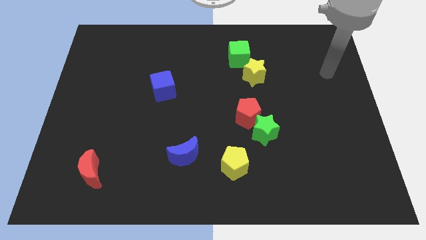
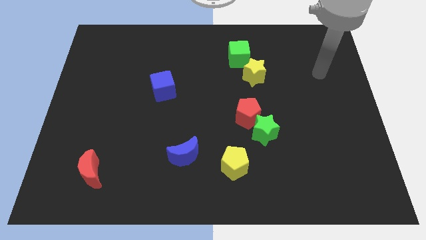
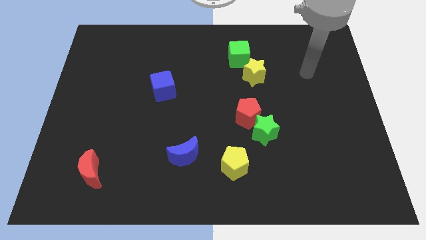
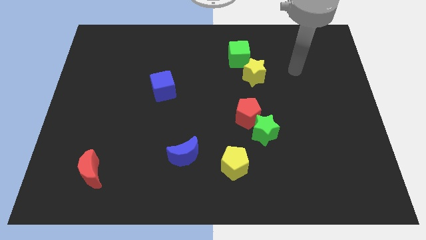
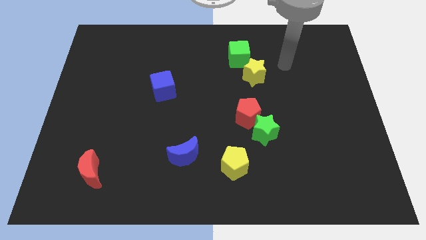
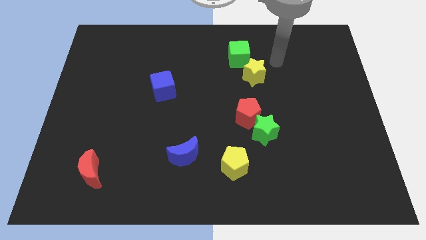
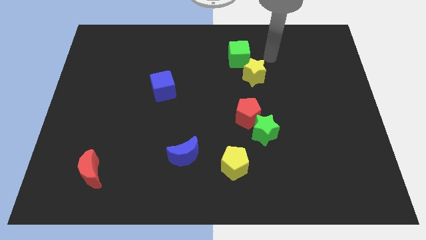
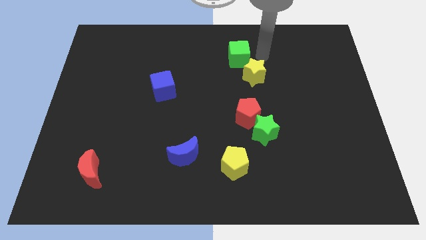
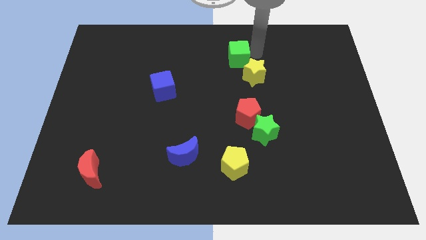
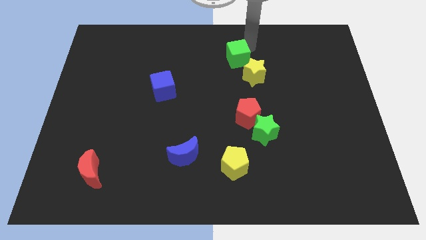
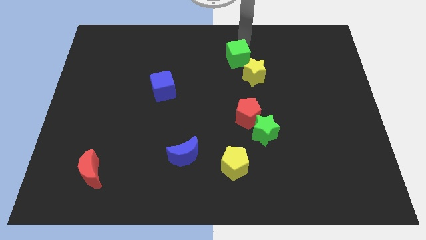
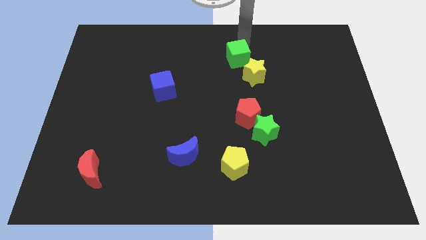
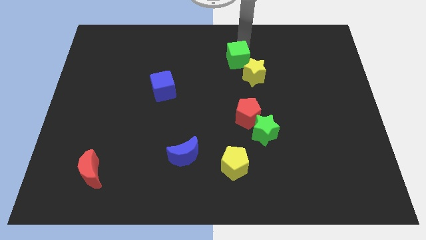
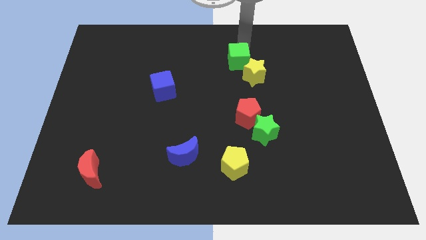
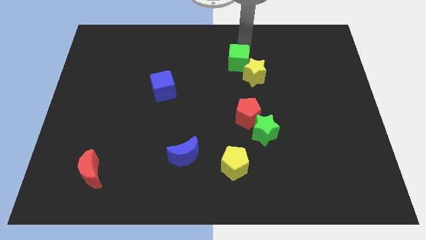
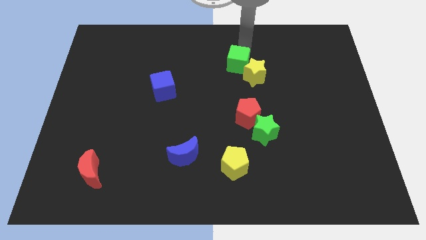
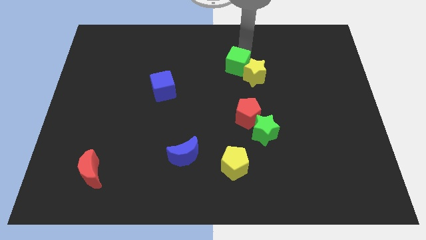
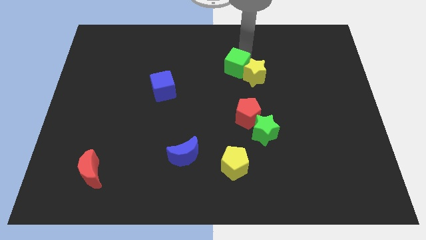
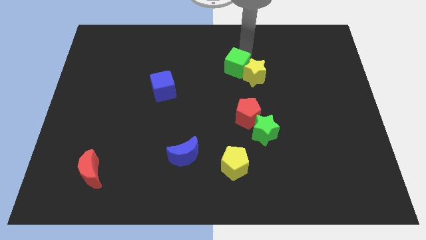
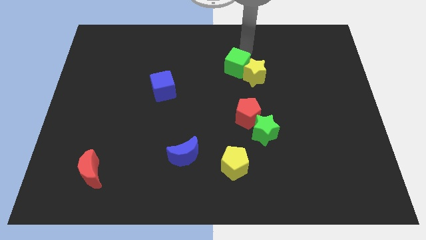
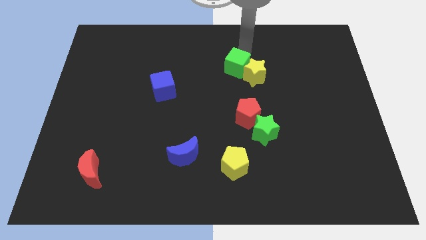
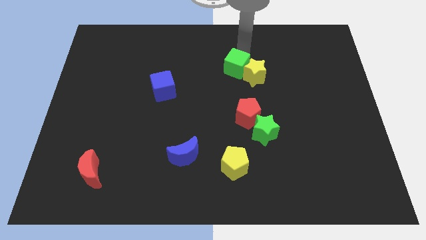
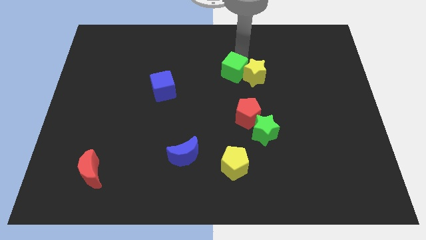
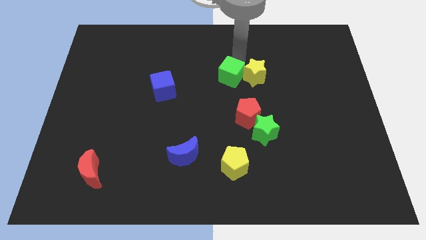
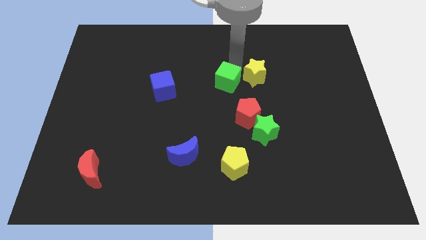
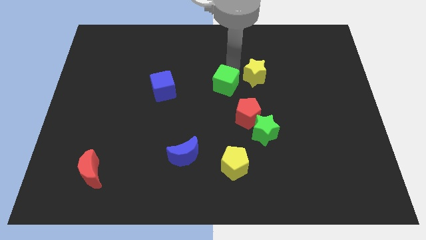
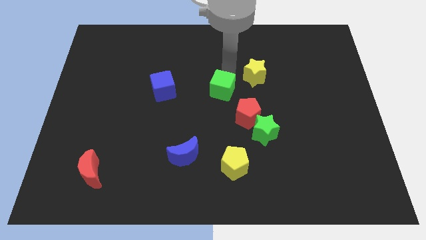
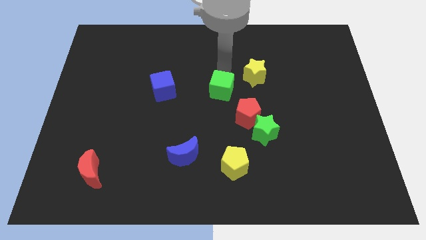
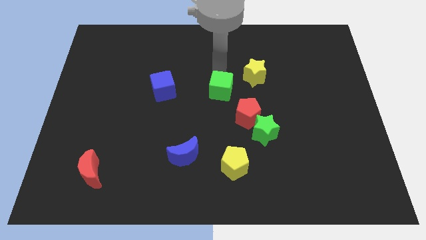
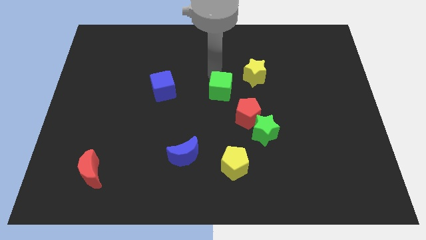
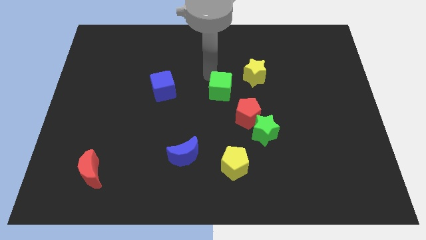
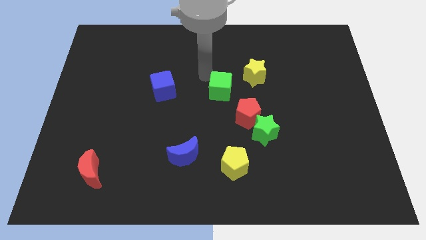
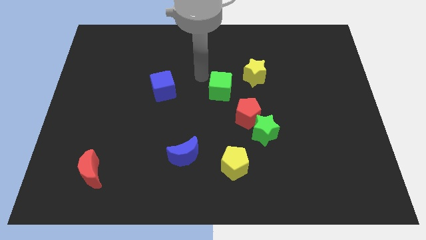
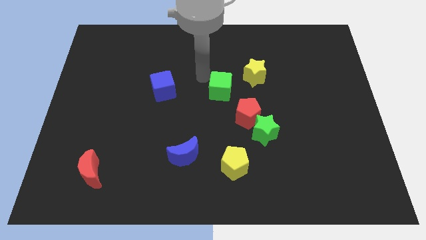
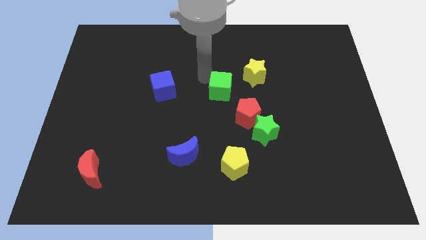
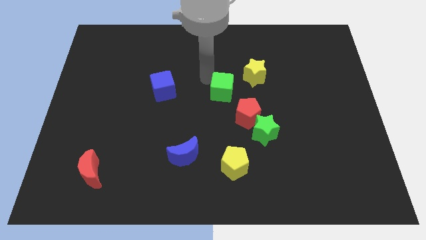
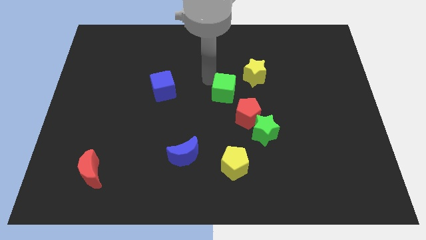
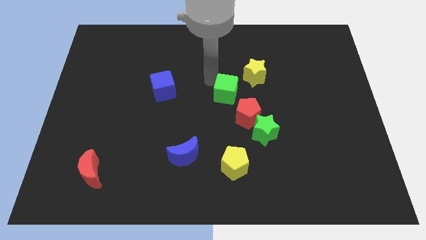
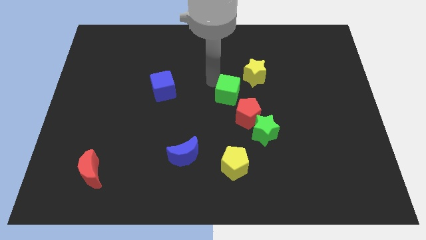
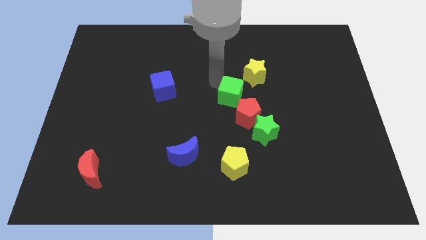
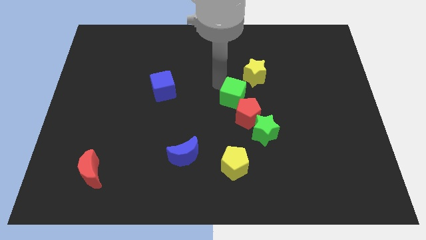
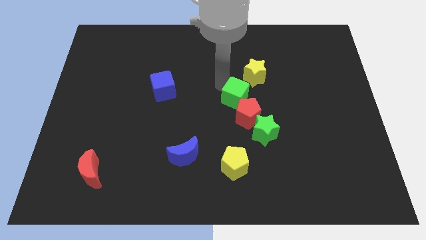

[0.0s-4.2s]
put the green cube close to the red pentagon

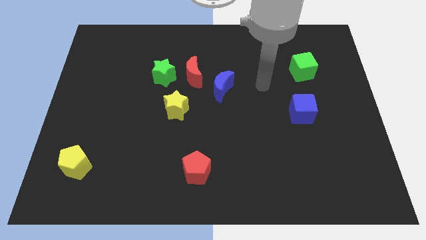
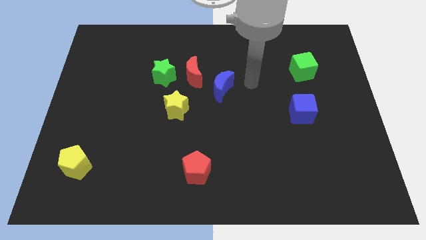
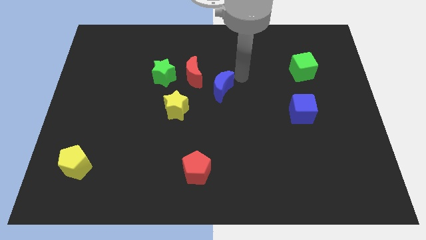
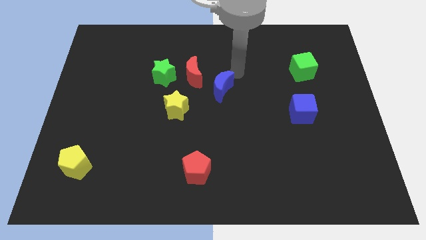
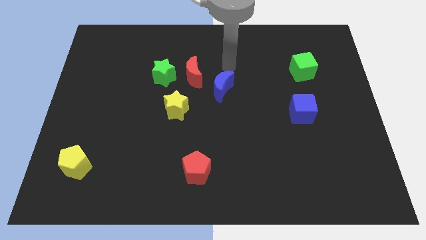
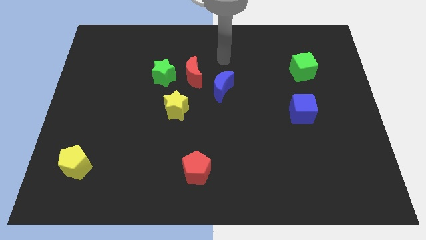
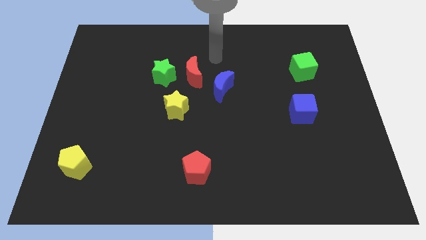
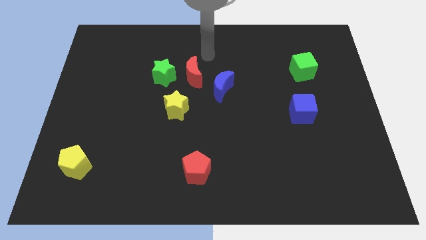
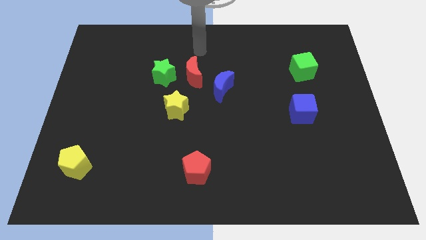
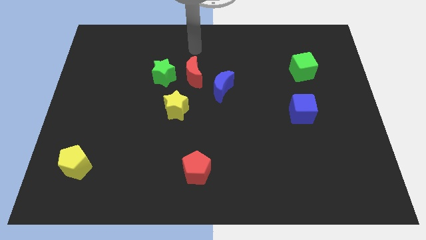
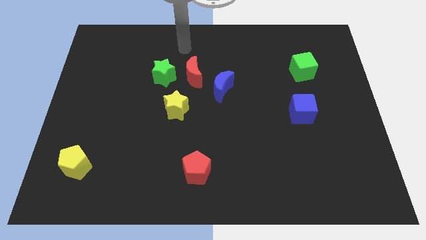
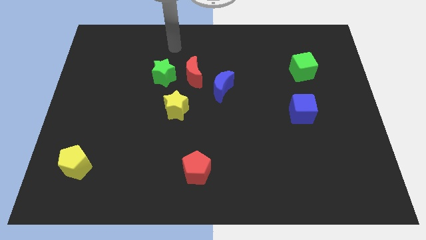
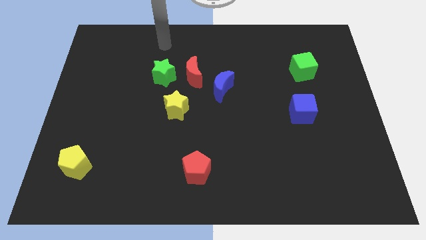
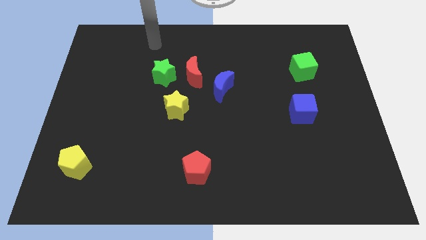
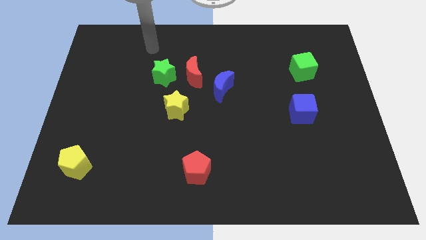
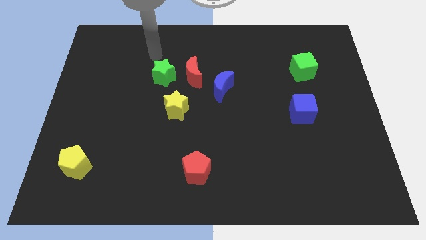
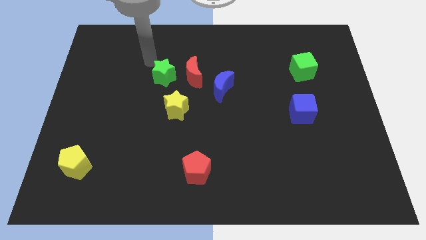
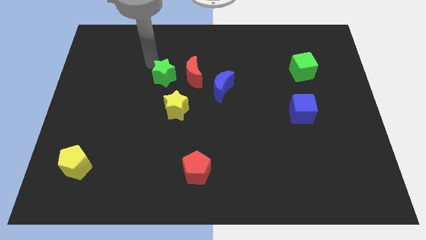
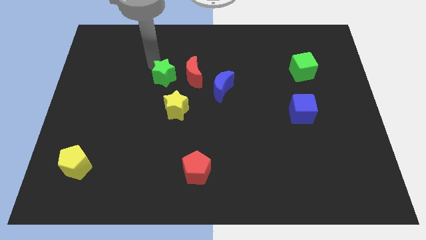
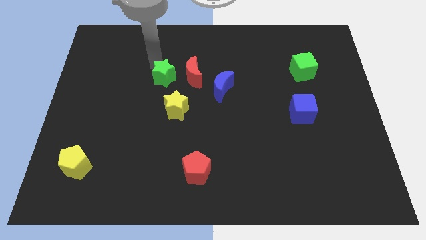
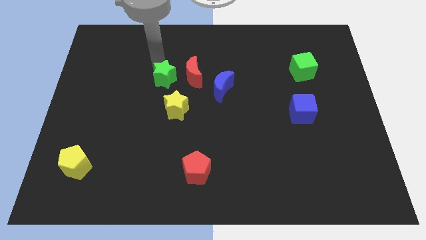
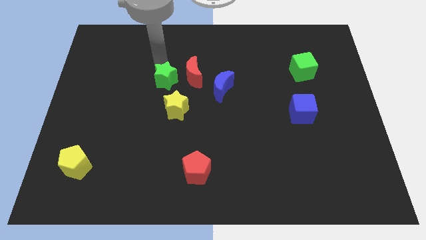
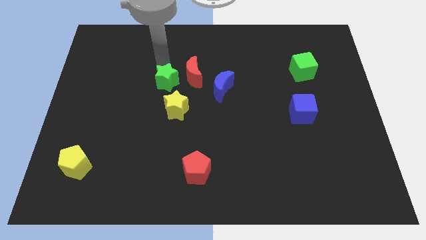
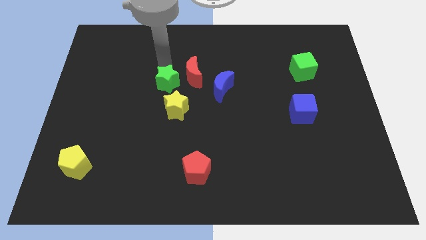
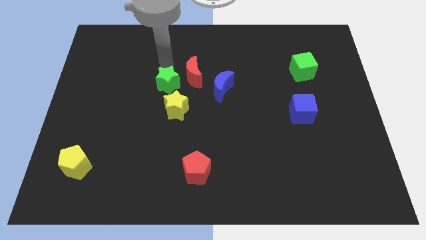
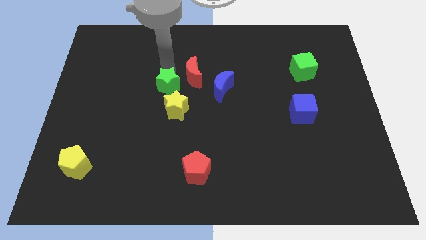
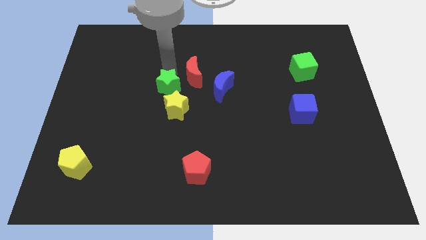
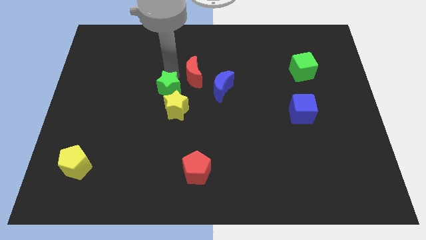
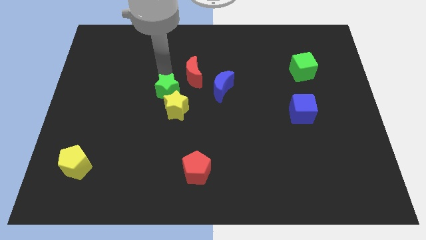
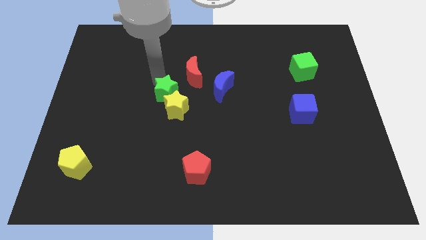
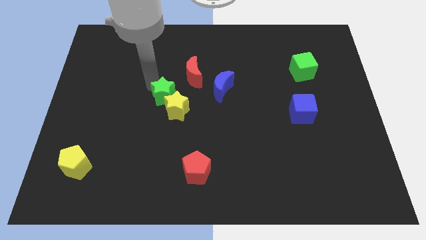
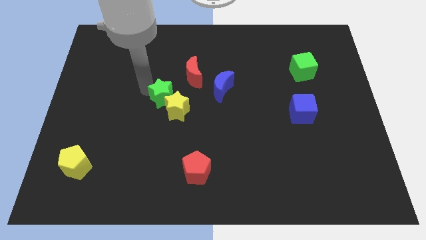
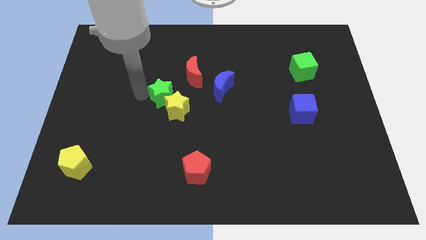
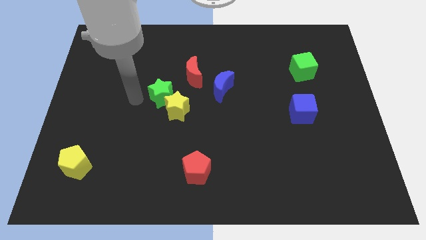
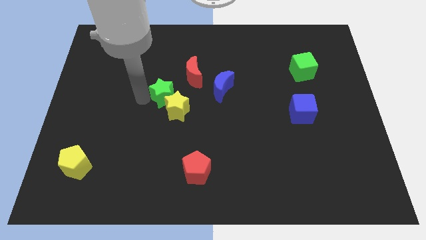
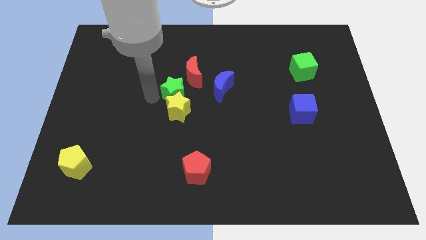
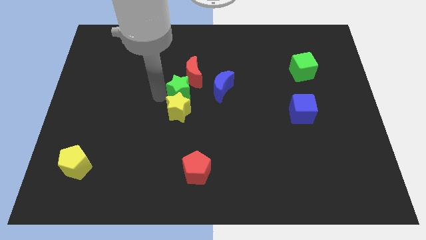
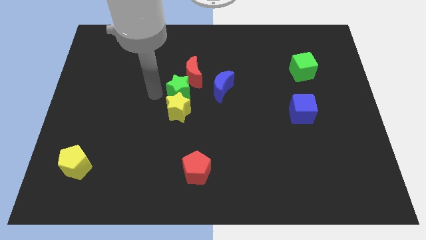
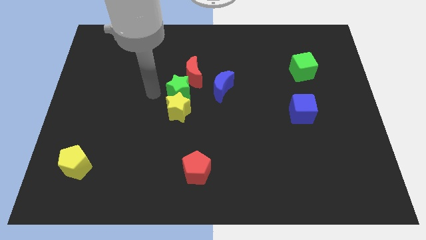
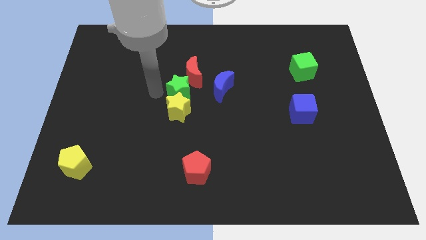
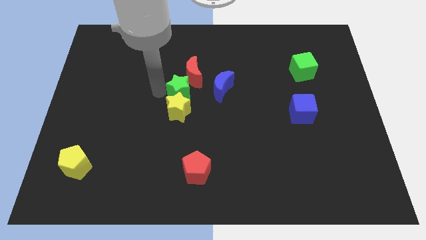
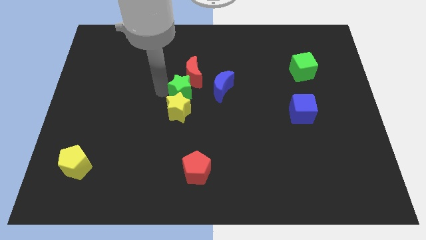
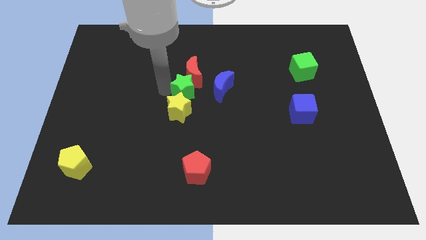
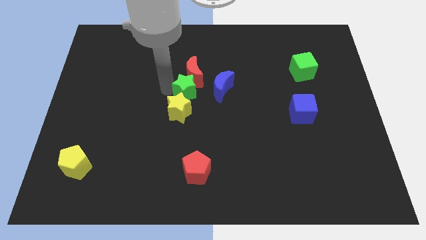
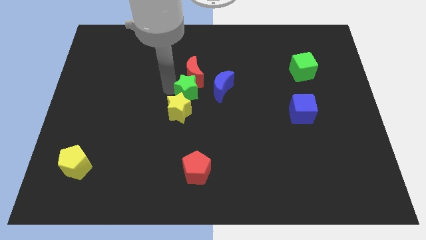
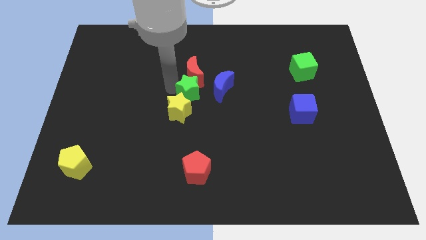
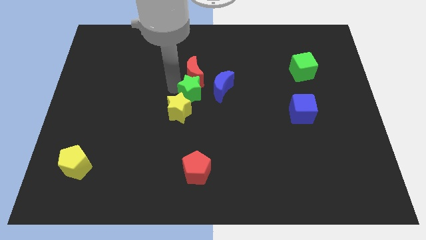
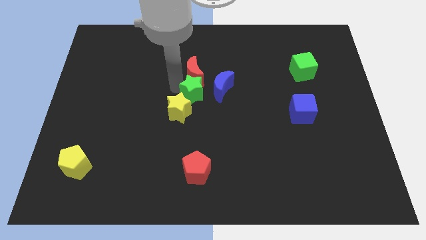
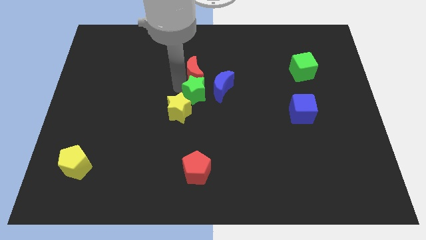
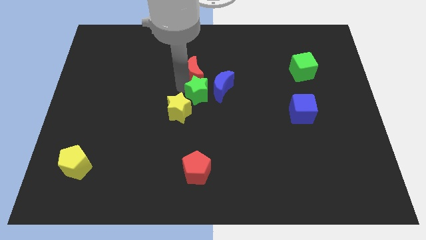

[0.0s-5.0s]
push the green star next to the blue moon
